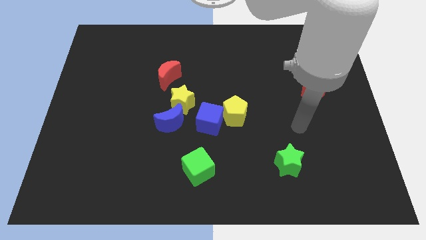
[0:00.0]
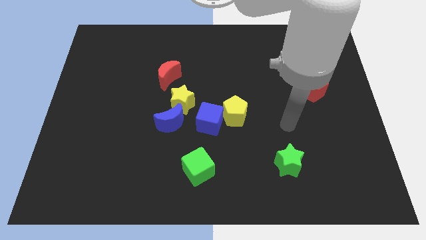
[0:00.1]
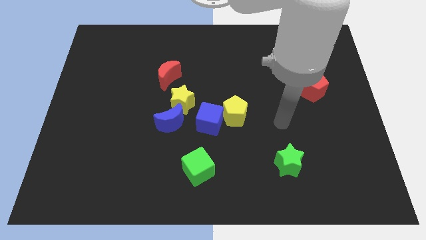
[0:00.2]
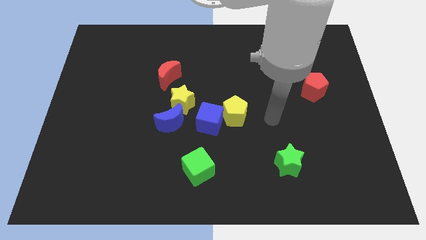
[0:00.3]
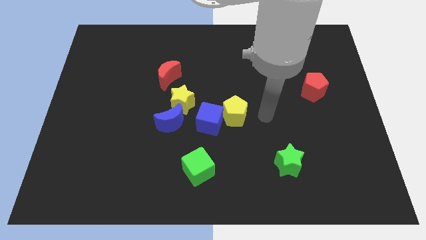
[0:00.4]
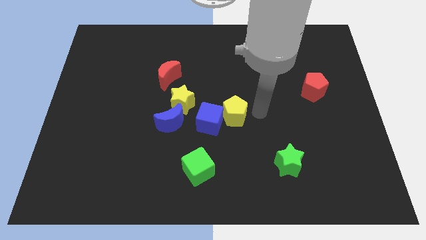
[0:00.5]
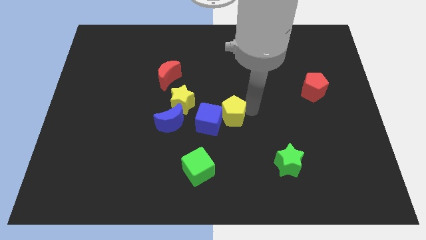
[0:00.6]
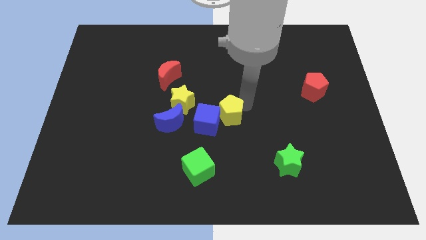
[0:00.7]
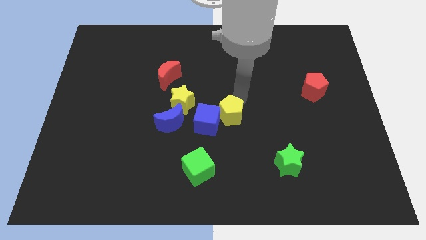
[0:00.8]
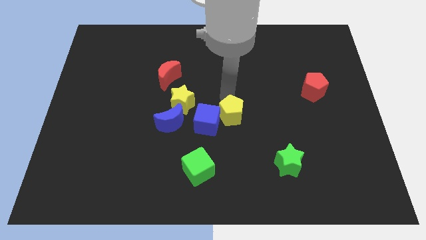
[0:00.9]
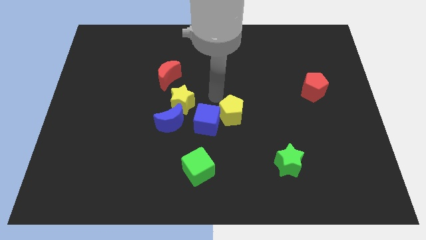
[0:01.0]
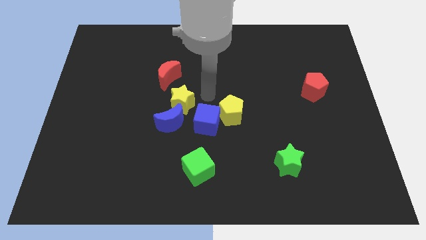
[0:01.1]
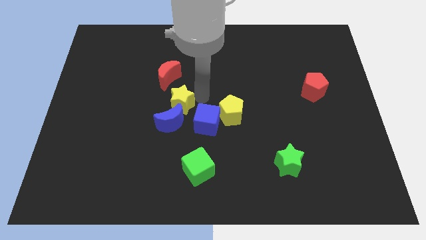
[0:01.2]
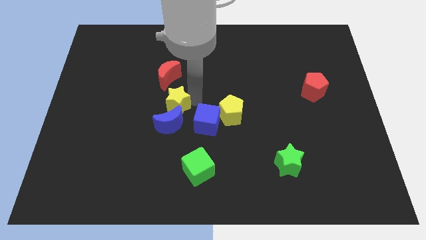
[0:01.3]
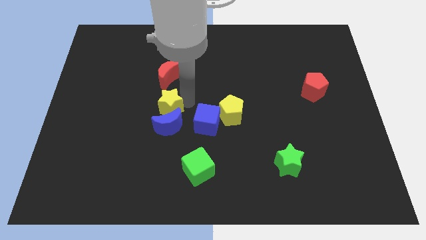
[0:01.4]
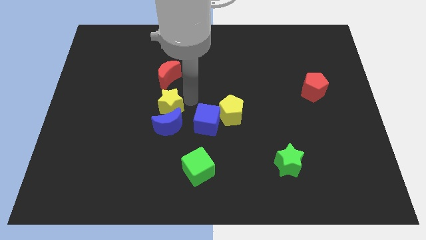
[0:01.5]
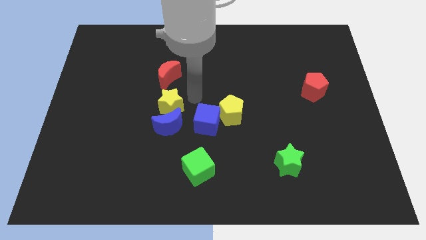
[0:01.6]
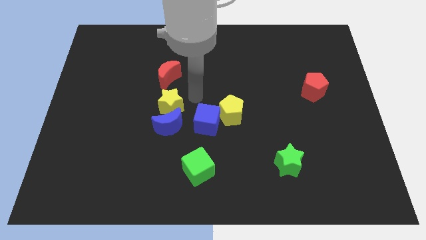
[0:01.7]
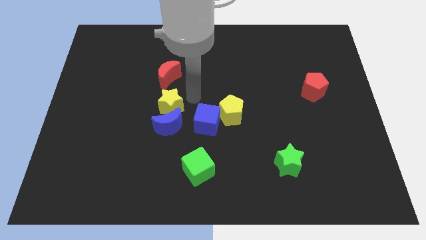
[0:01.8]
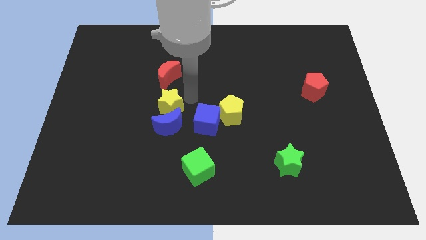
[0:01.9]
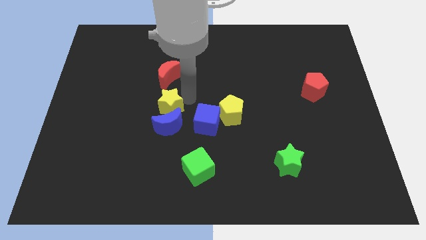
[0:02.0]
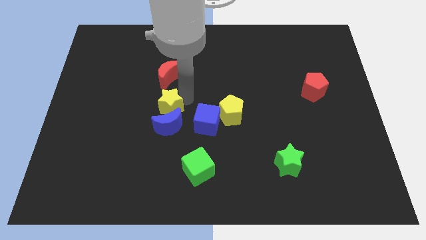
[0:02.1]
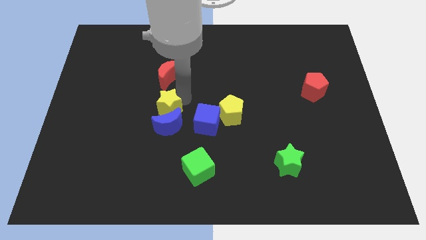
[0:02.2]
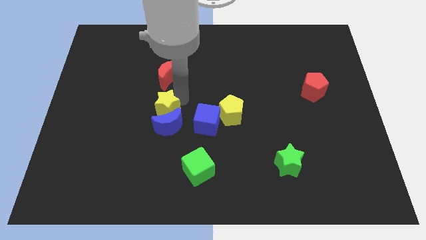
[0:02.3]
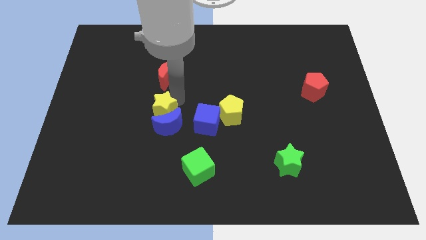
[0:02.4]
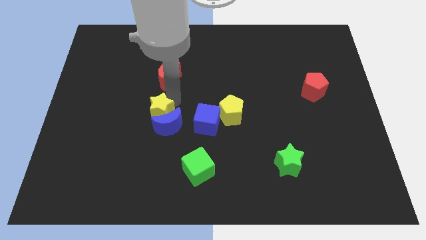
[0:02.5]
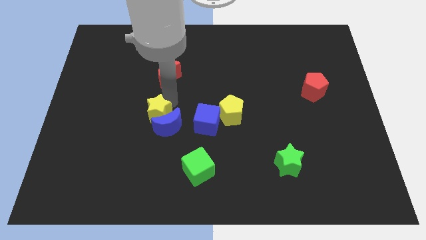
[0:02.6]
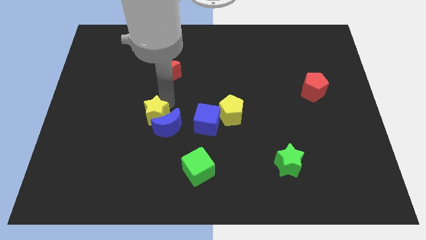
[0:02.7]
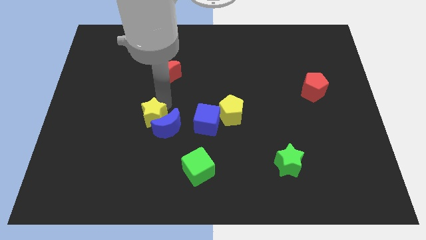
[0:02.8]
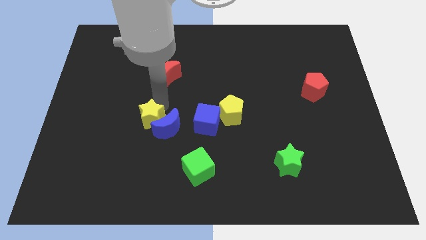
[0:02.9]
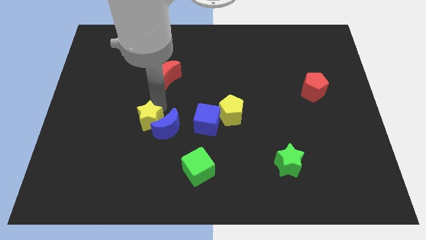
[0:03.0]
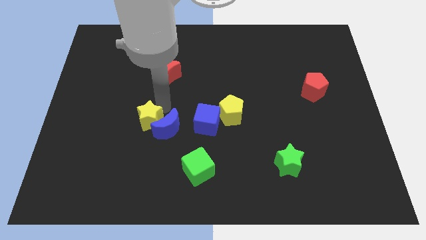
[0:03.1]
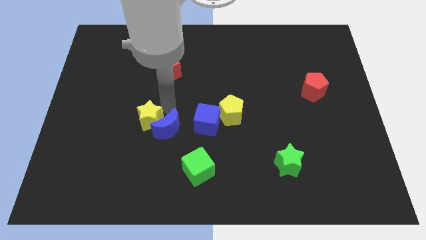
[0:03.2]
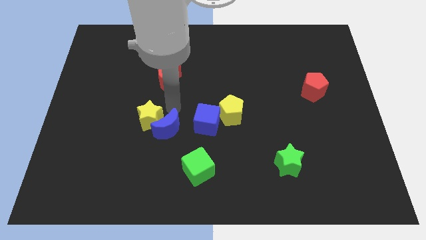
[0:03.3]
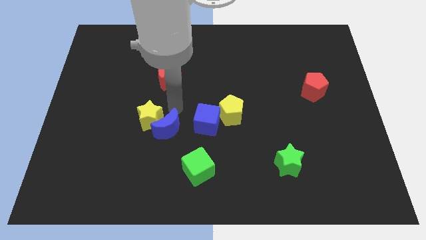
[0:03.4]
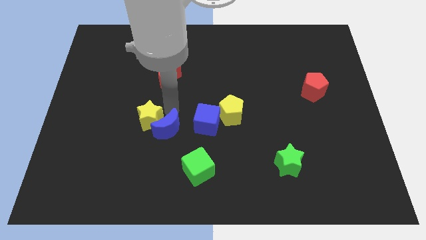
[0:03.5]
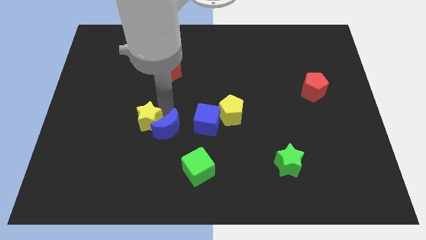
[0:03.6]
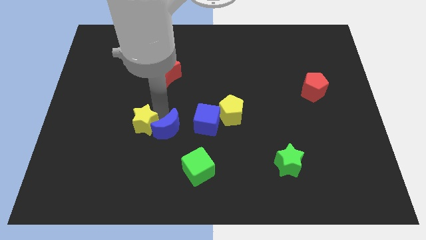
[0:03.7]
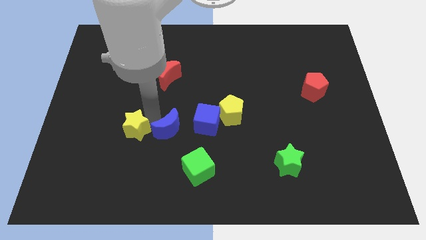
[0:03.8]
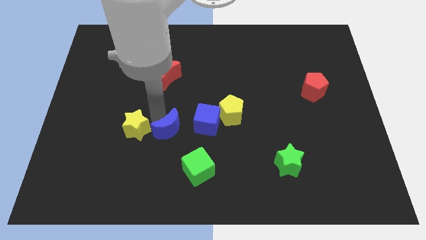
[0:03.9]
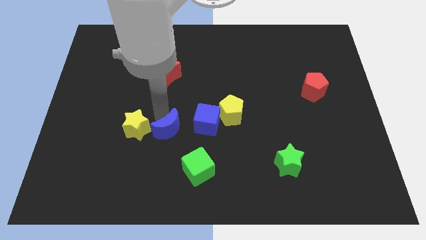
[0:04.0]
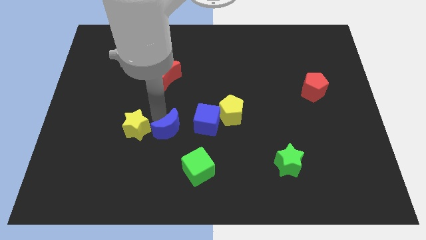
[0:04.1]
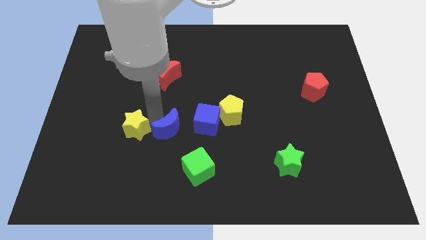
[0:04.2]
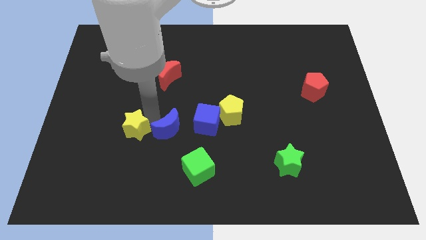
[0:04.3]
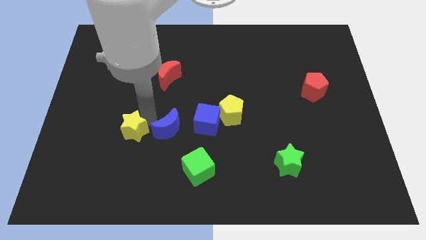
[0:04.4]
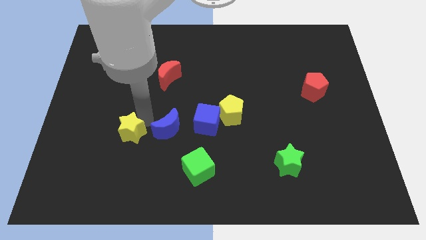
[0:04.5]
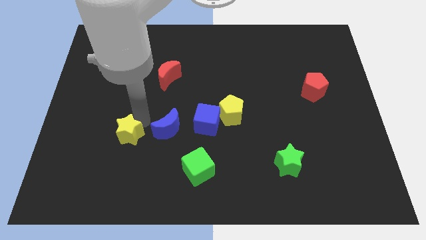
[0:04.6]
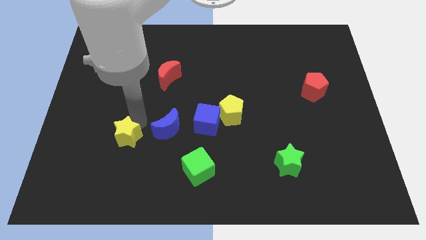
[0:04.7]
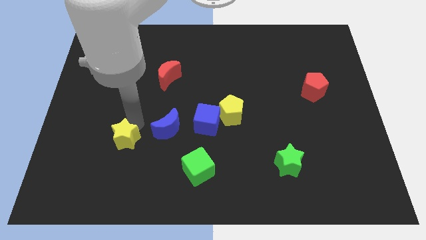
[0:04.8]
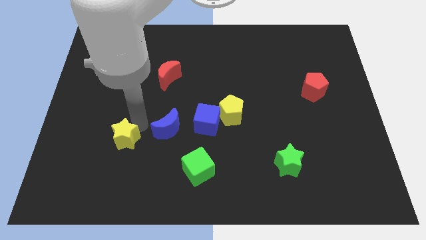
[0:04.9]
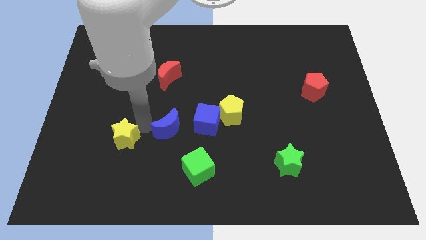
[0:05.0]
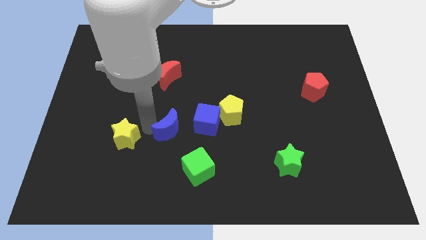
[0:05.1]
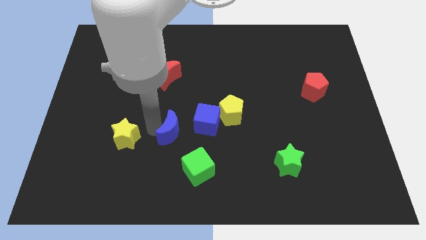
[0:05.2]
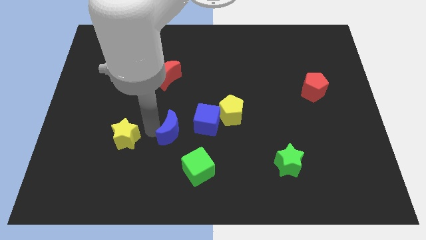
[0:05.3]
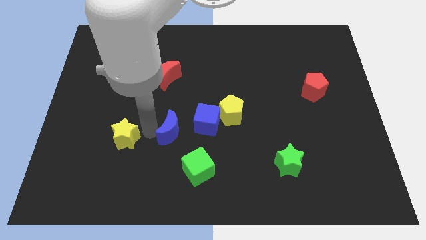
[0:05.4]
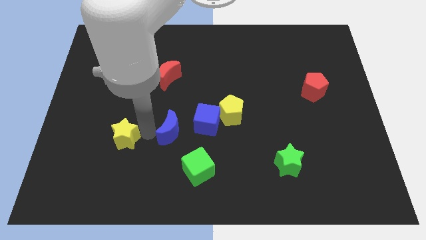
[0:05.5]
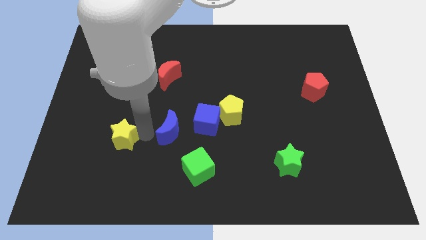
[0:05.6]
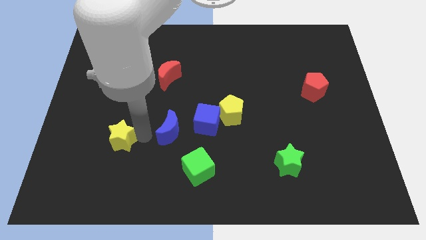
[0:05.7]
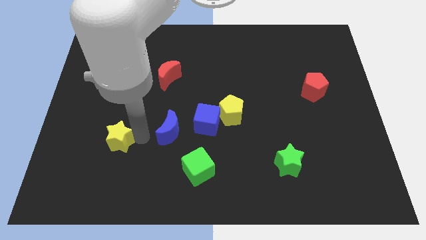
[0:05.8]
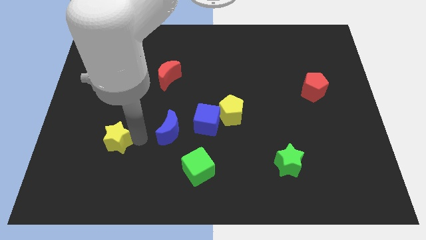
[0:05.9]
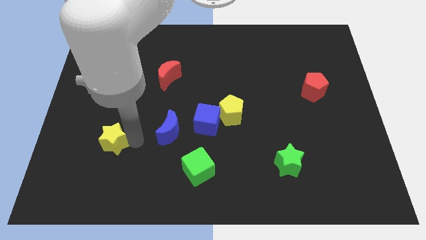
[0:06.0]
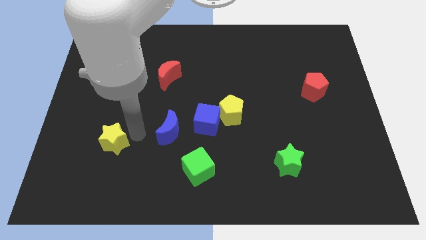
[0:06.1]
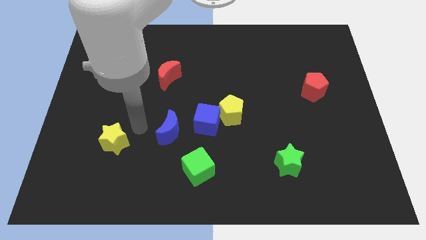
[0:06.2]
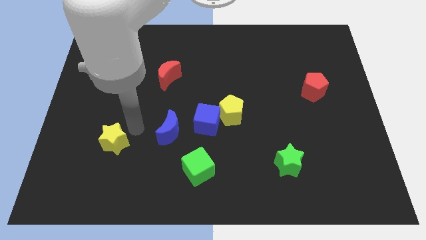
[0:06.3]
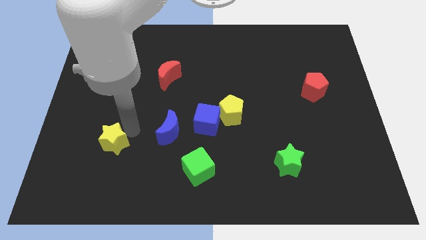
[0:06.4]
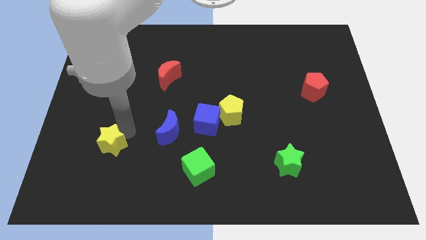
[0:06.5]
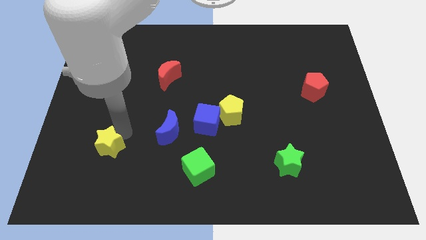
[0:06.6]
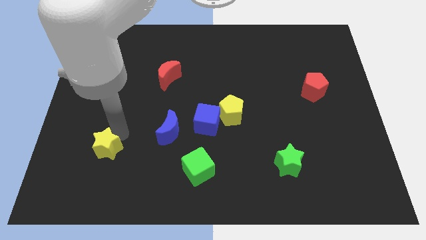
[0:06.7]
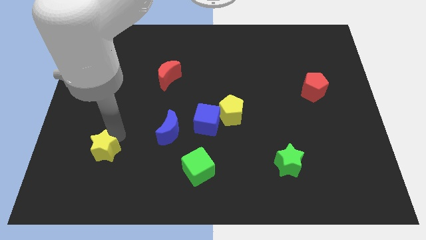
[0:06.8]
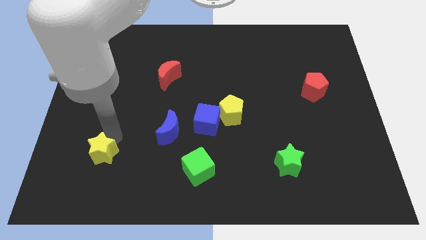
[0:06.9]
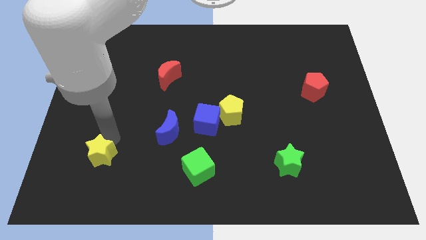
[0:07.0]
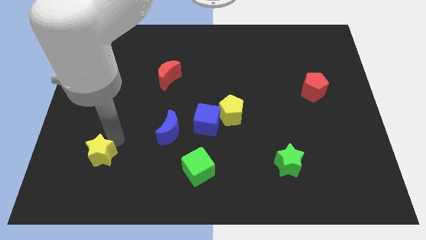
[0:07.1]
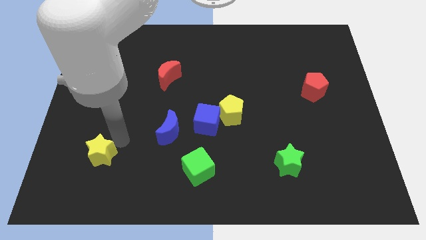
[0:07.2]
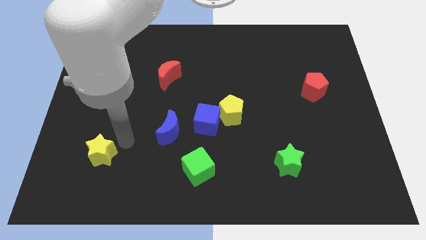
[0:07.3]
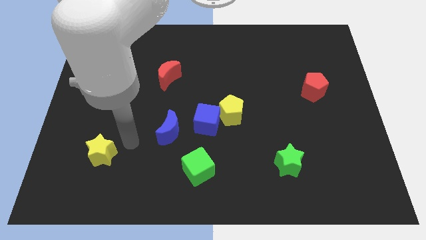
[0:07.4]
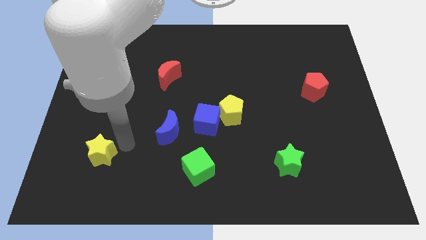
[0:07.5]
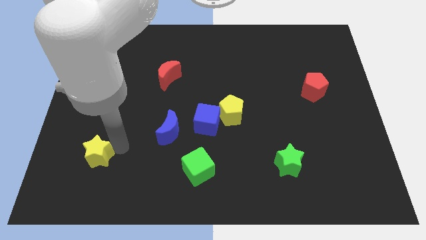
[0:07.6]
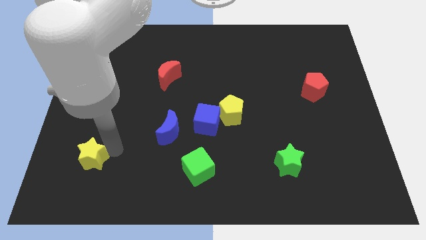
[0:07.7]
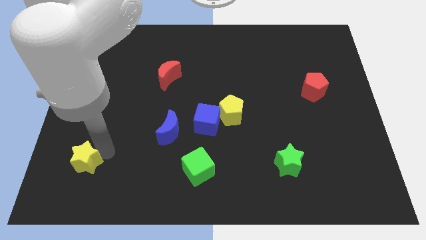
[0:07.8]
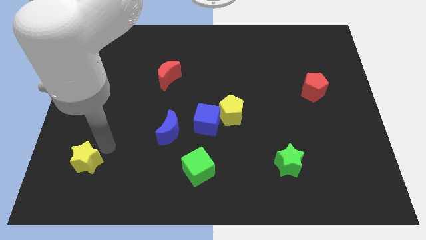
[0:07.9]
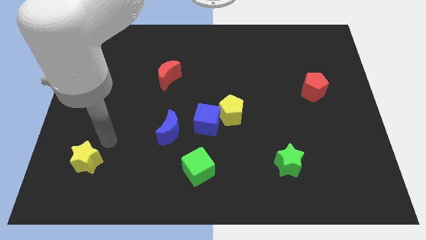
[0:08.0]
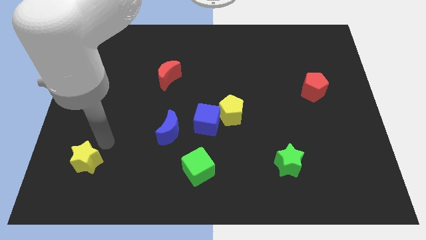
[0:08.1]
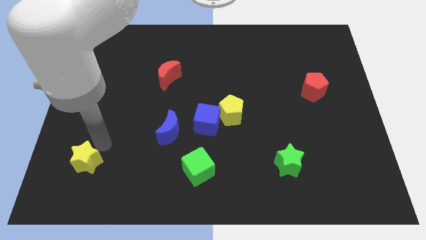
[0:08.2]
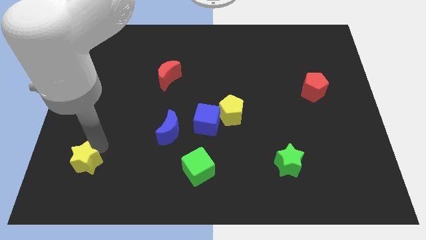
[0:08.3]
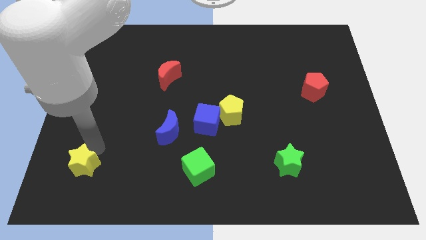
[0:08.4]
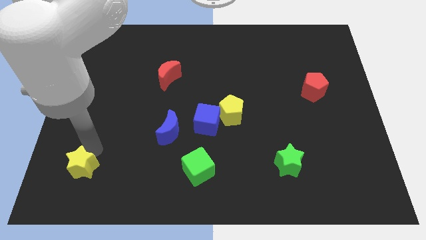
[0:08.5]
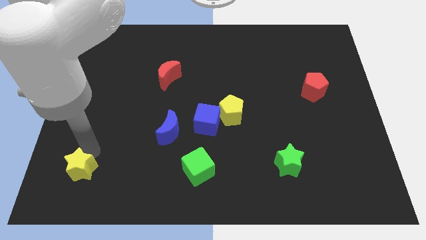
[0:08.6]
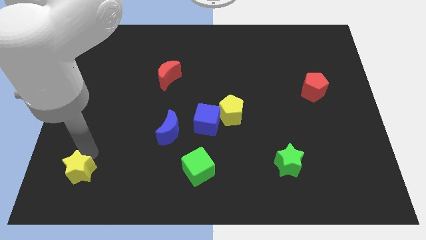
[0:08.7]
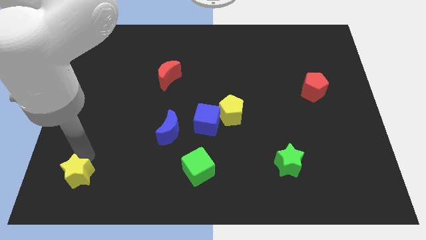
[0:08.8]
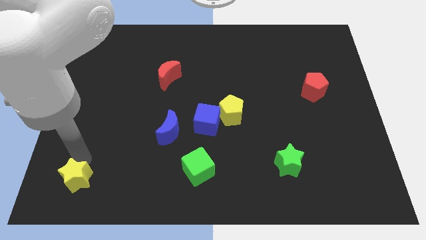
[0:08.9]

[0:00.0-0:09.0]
push the yellow star to the lower left corner
